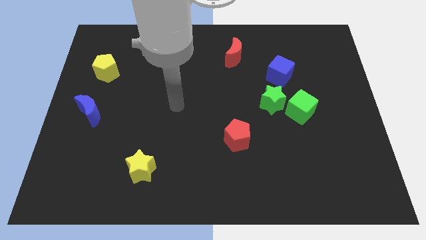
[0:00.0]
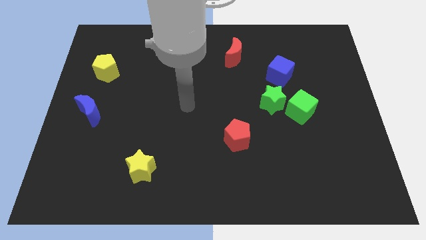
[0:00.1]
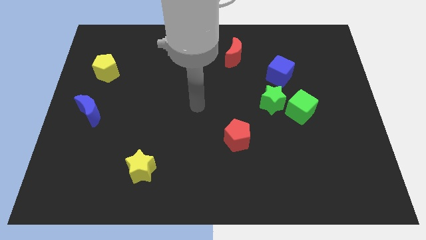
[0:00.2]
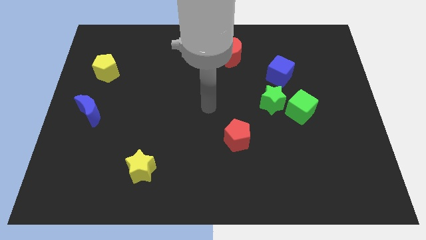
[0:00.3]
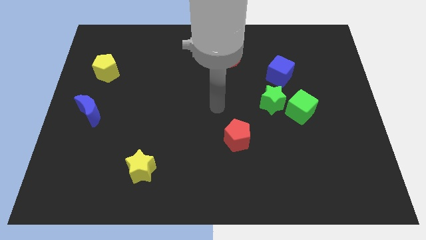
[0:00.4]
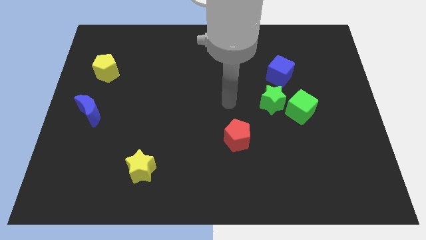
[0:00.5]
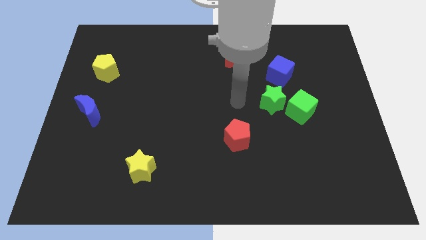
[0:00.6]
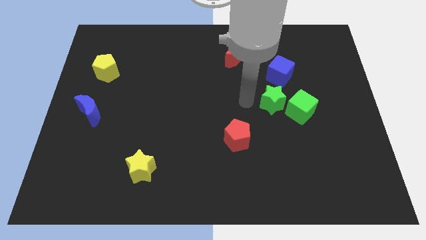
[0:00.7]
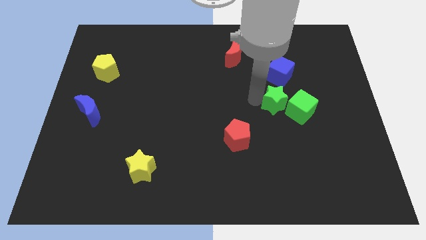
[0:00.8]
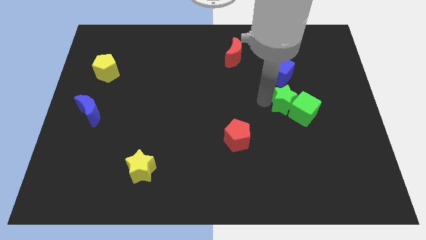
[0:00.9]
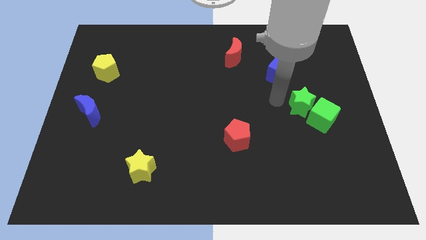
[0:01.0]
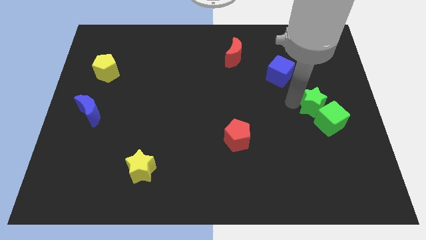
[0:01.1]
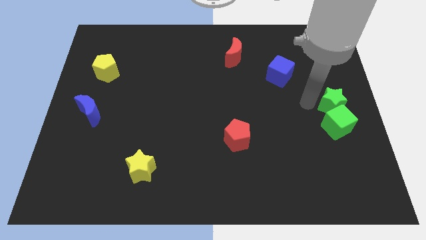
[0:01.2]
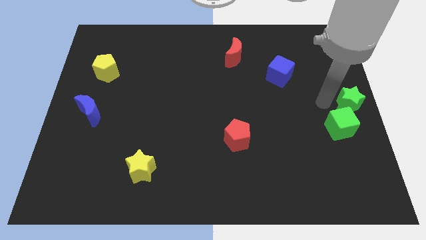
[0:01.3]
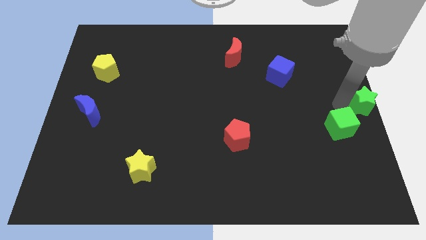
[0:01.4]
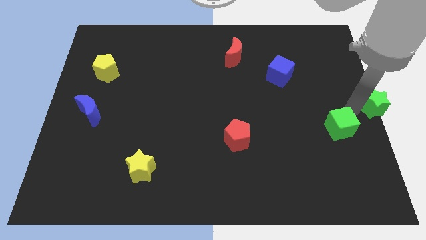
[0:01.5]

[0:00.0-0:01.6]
move the green cube away from the green star

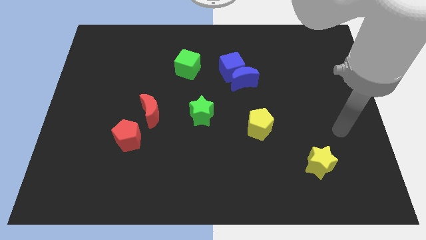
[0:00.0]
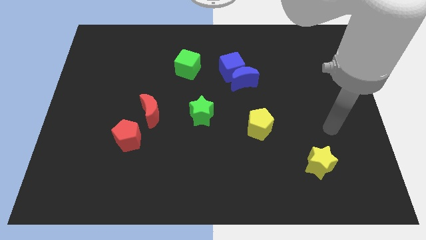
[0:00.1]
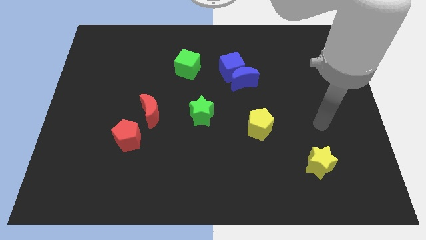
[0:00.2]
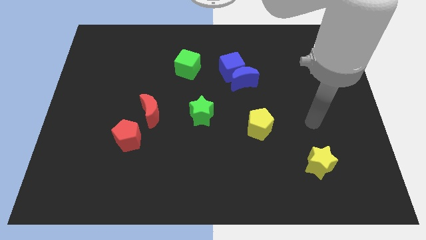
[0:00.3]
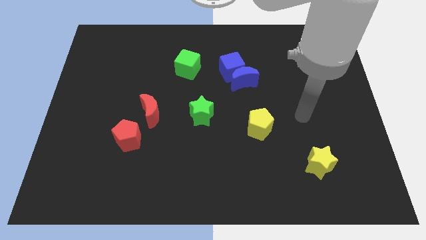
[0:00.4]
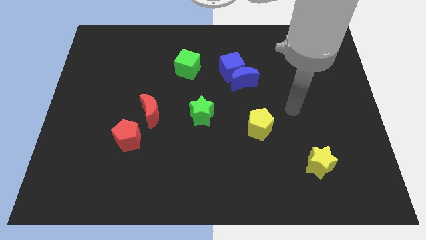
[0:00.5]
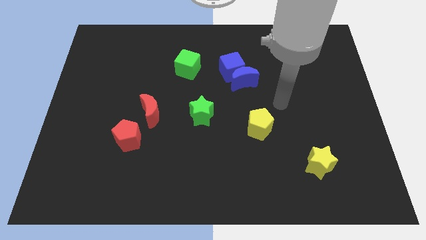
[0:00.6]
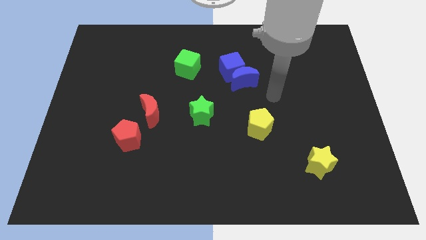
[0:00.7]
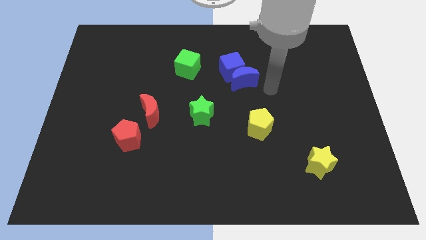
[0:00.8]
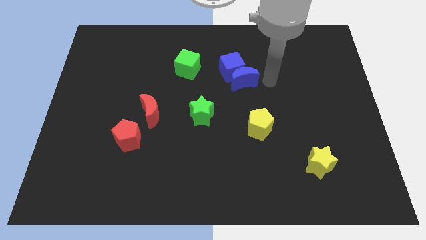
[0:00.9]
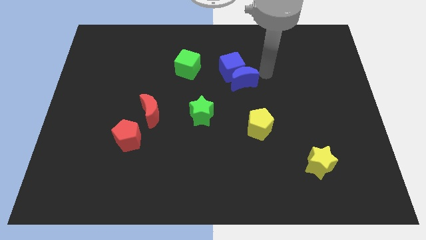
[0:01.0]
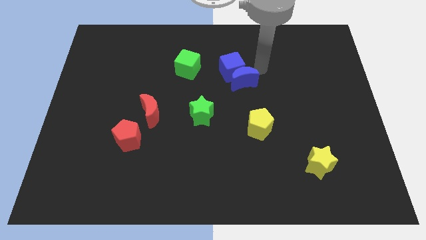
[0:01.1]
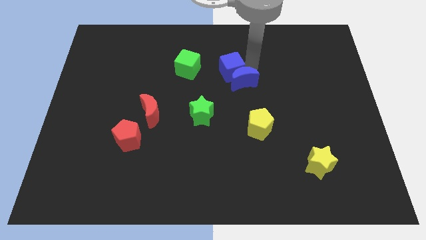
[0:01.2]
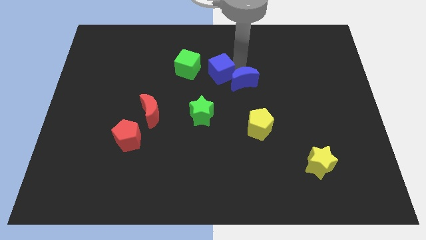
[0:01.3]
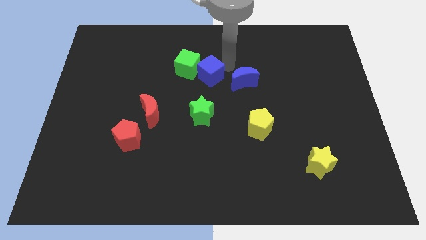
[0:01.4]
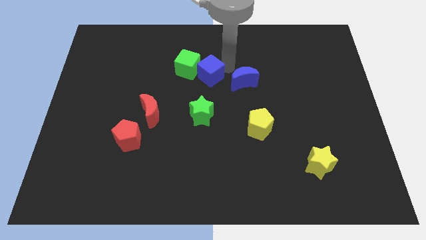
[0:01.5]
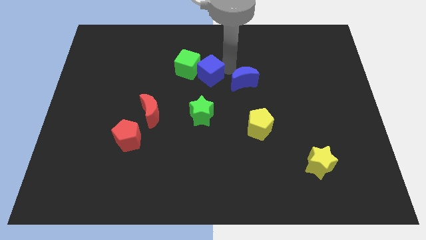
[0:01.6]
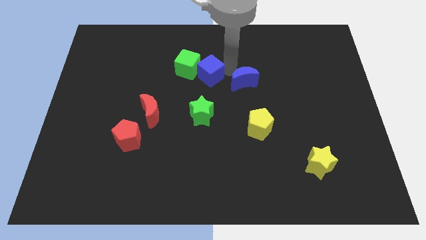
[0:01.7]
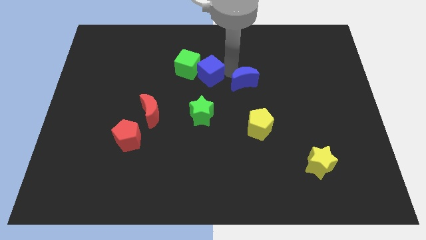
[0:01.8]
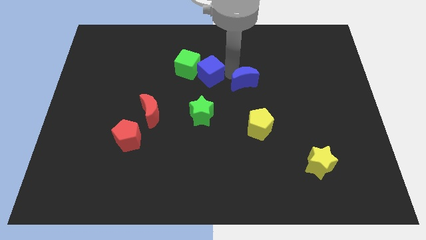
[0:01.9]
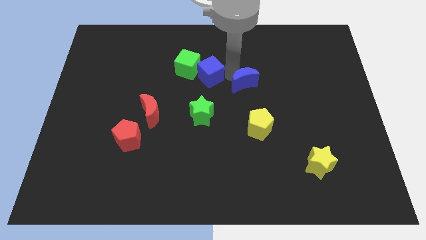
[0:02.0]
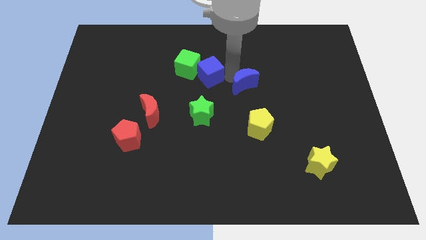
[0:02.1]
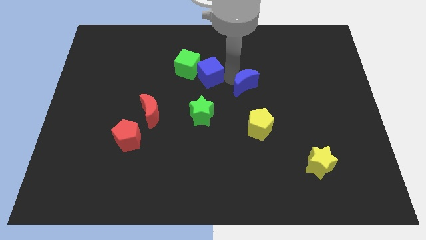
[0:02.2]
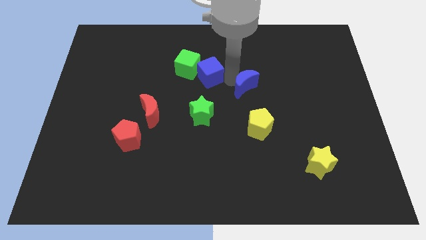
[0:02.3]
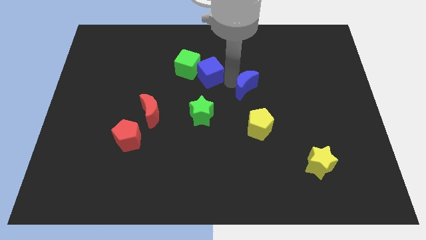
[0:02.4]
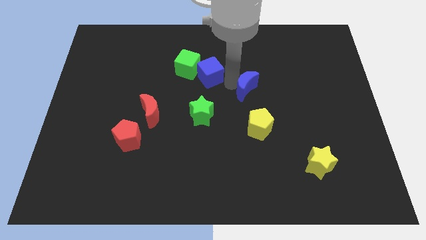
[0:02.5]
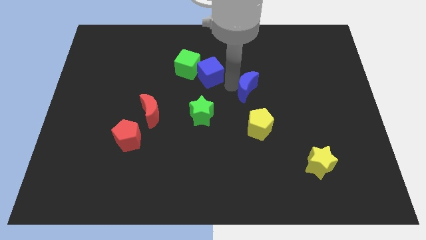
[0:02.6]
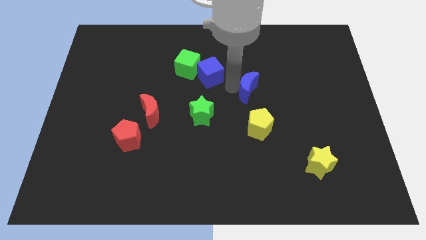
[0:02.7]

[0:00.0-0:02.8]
separate the blue moon from the blue cube

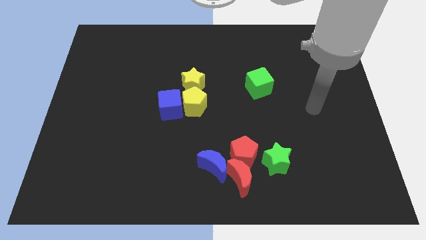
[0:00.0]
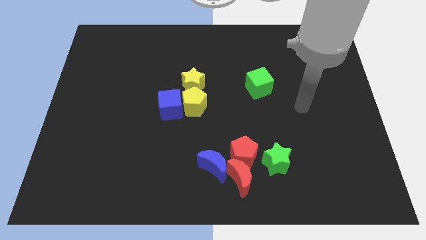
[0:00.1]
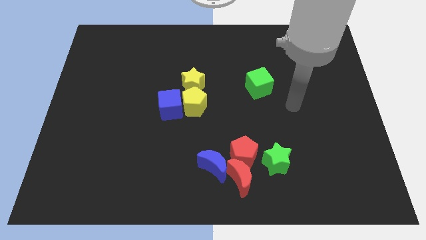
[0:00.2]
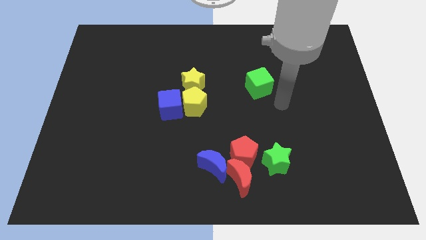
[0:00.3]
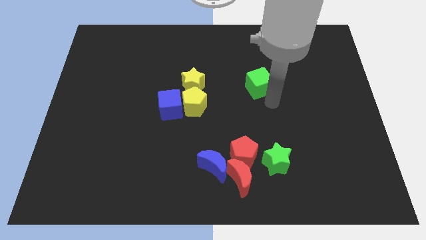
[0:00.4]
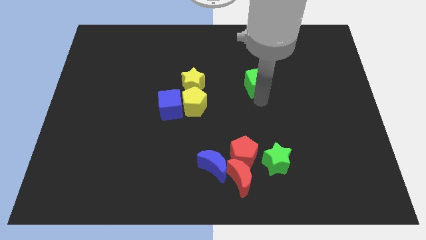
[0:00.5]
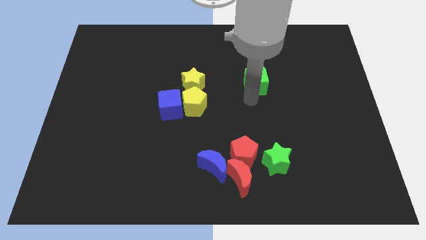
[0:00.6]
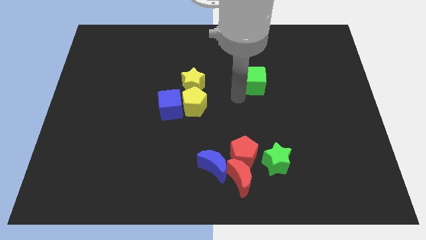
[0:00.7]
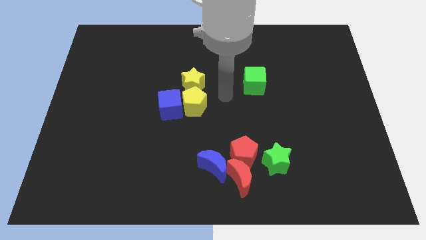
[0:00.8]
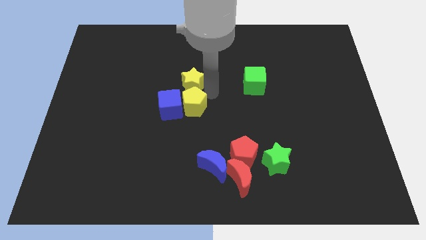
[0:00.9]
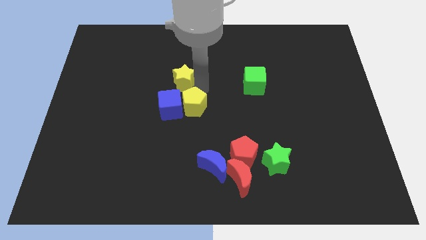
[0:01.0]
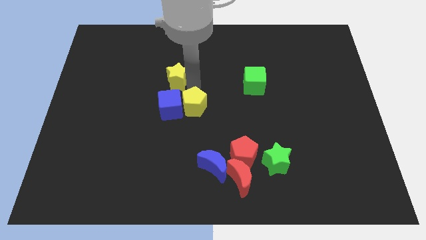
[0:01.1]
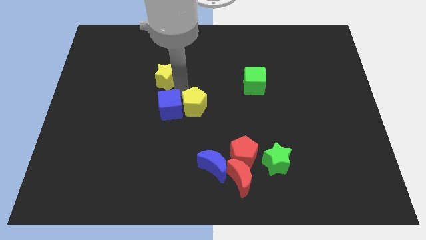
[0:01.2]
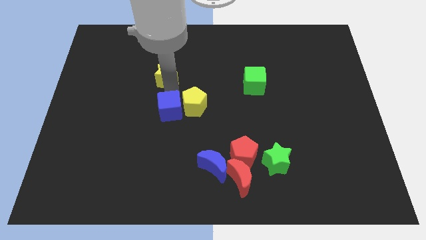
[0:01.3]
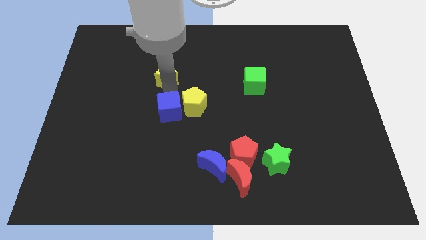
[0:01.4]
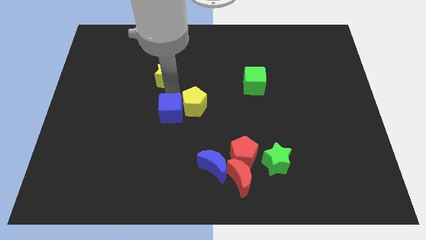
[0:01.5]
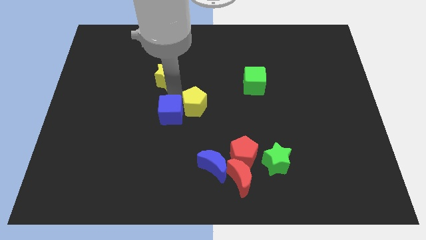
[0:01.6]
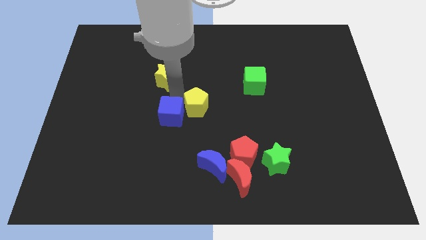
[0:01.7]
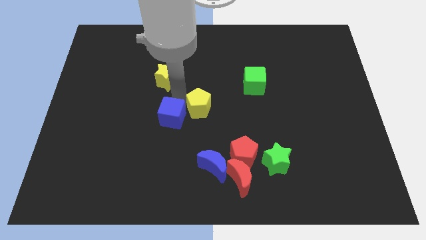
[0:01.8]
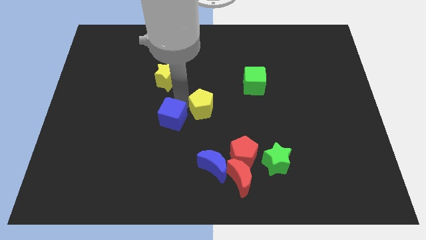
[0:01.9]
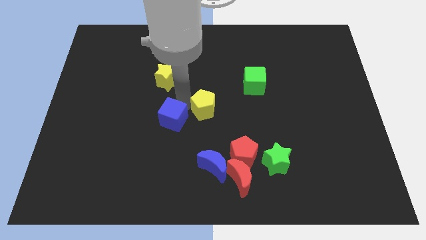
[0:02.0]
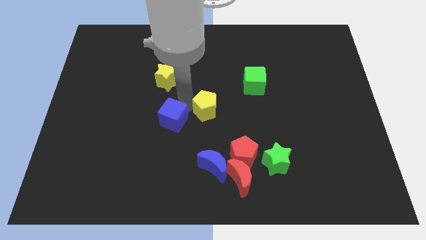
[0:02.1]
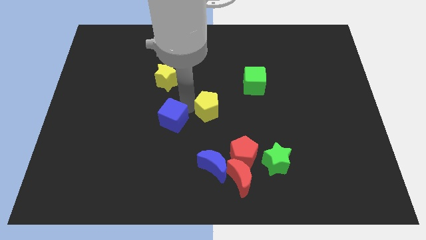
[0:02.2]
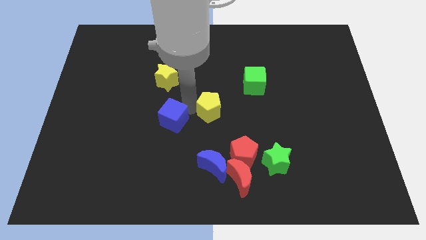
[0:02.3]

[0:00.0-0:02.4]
separate the yellow pentagon from the blue cube and yellow star

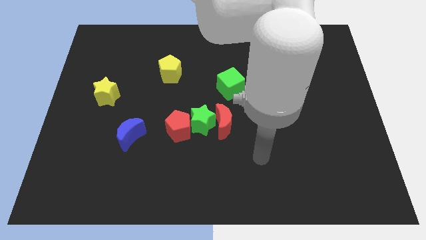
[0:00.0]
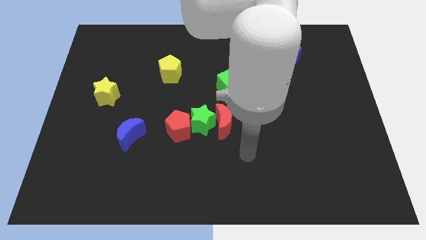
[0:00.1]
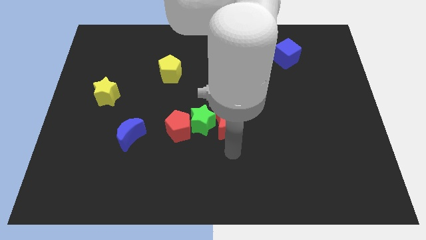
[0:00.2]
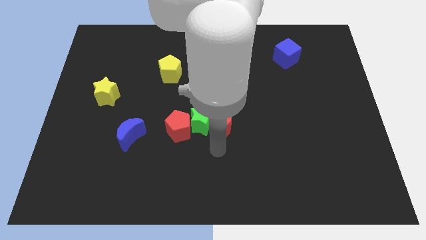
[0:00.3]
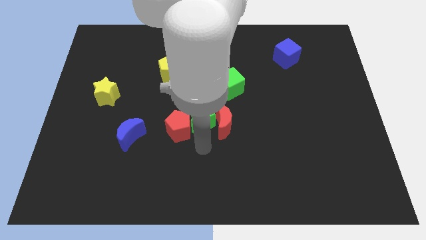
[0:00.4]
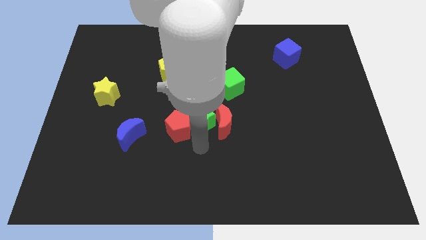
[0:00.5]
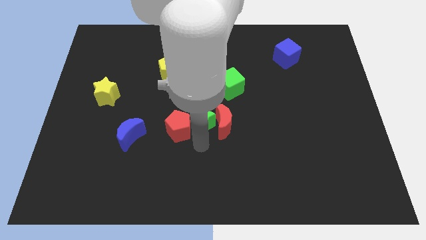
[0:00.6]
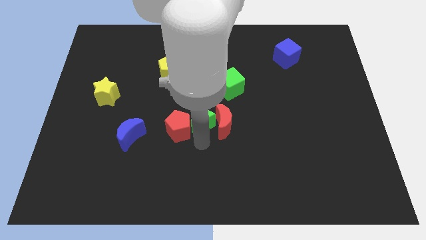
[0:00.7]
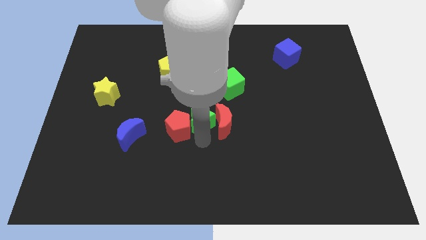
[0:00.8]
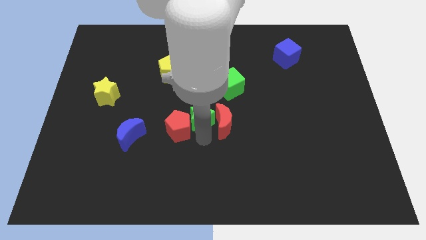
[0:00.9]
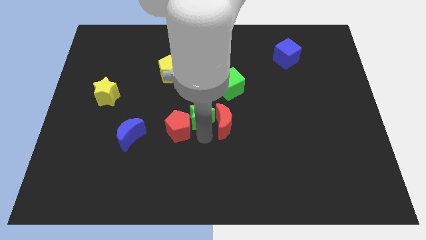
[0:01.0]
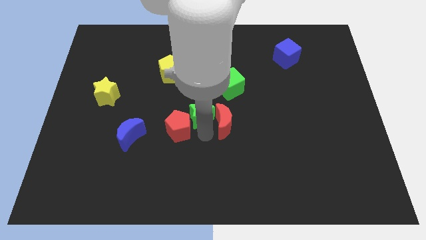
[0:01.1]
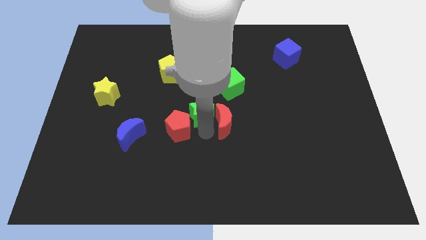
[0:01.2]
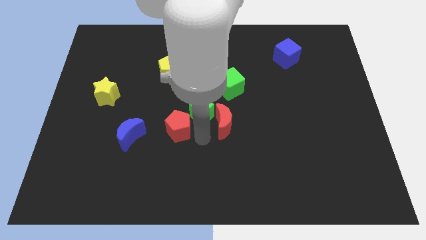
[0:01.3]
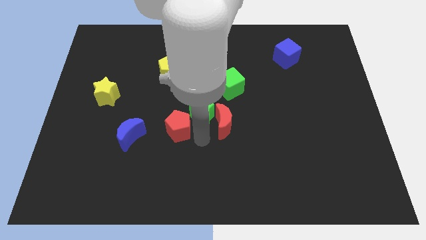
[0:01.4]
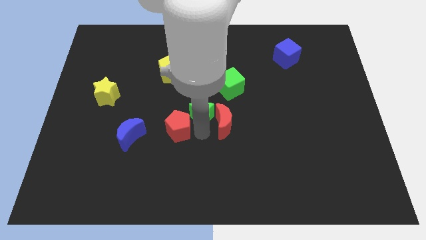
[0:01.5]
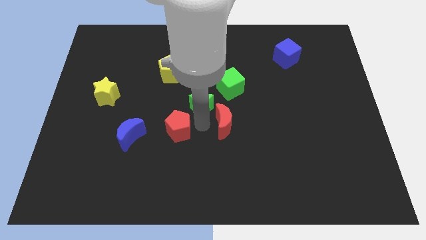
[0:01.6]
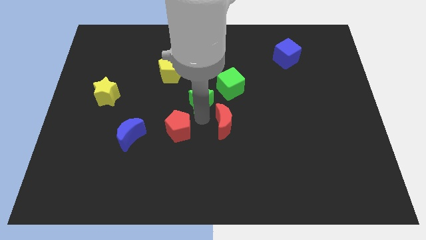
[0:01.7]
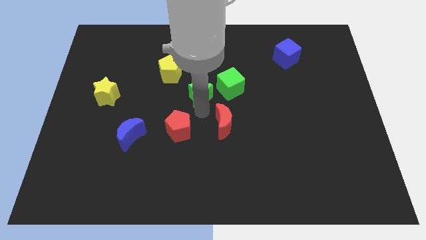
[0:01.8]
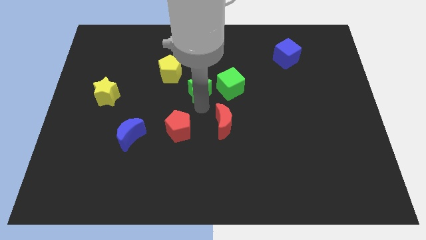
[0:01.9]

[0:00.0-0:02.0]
separate the green star from the red moon and red pentagon

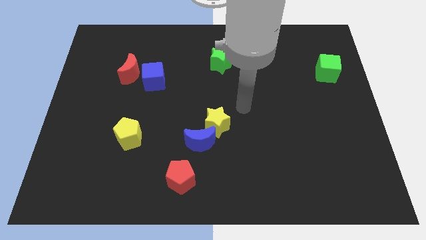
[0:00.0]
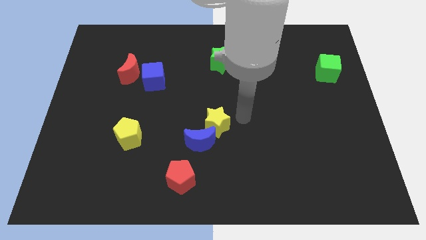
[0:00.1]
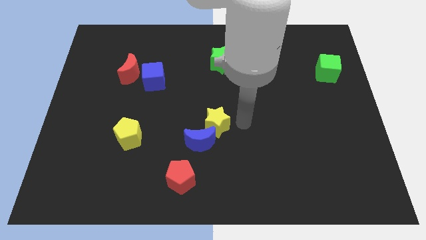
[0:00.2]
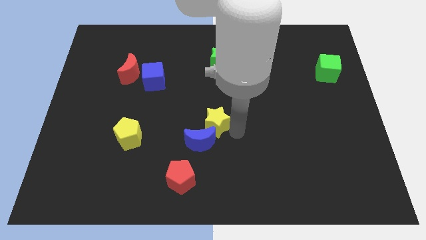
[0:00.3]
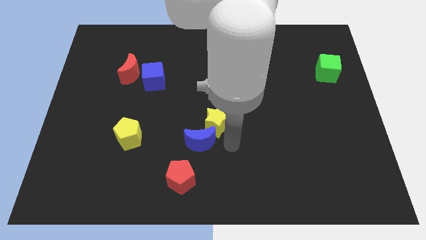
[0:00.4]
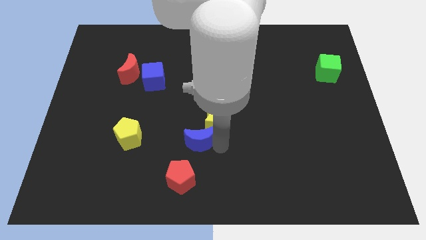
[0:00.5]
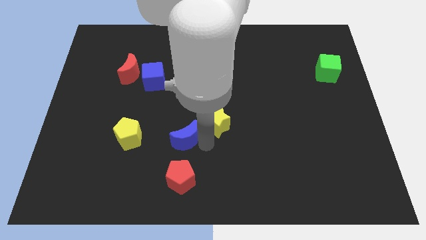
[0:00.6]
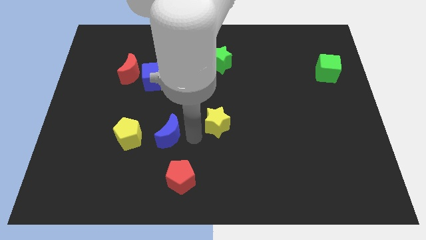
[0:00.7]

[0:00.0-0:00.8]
separate the yellow star from the blue moon
